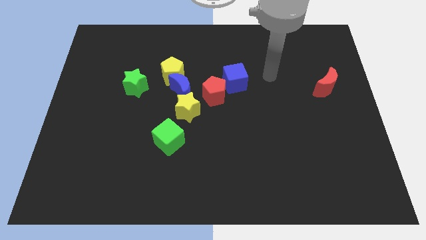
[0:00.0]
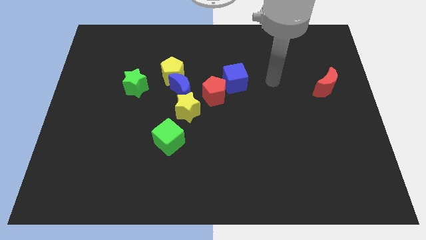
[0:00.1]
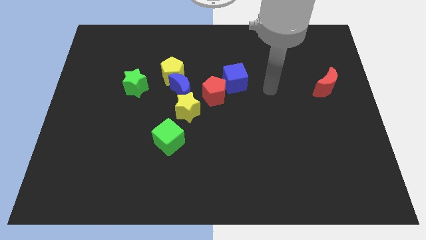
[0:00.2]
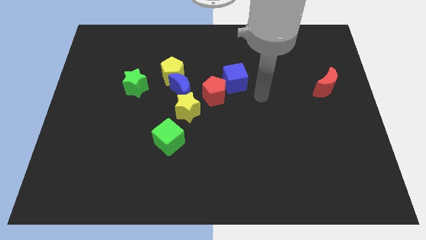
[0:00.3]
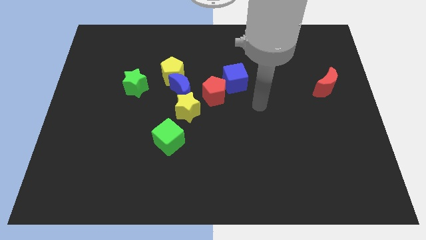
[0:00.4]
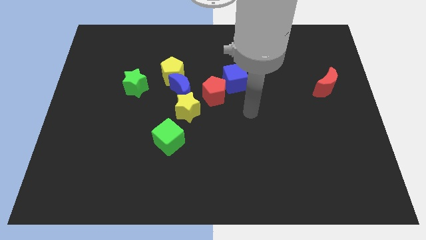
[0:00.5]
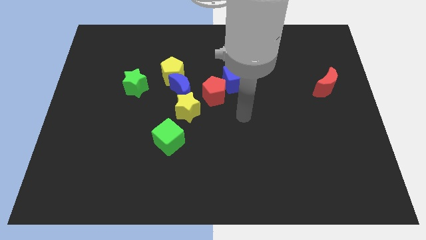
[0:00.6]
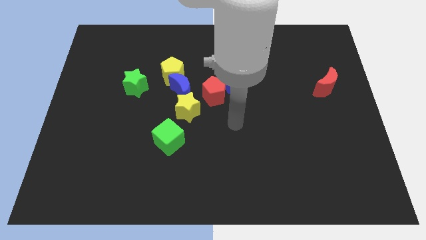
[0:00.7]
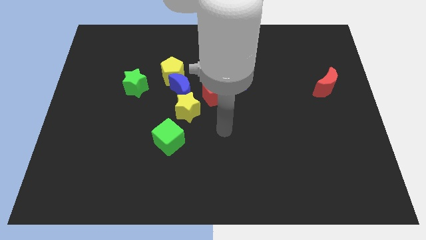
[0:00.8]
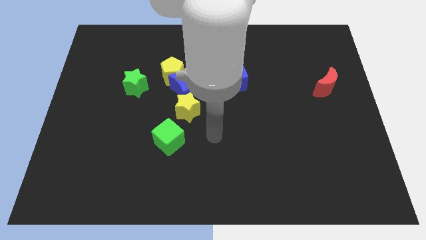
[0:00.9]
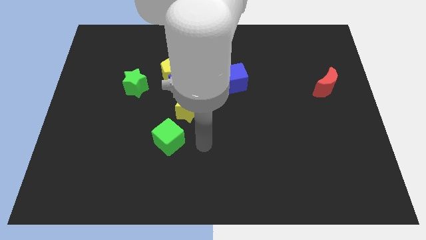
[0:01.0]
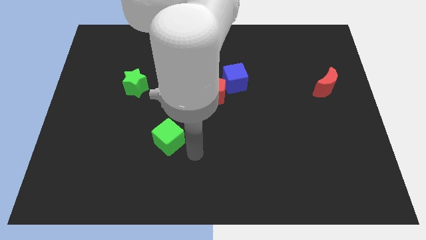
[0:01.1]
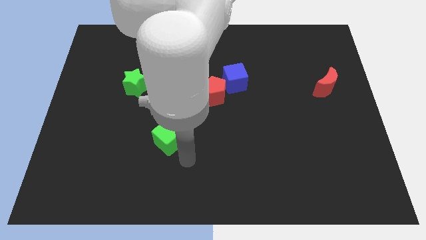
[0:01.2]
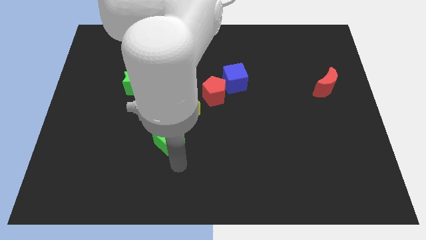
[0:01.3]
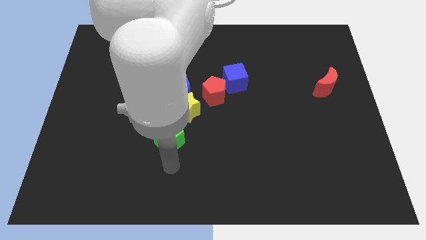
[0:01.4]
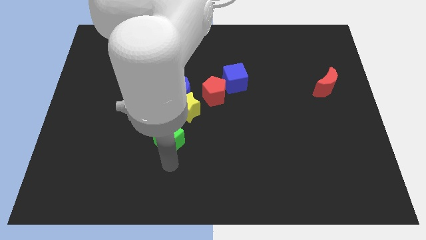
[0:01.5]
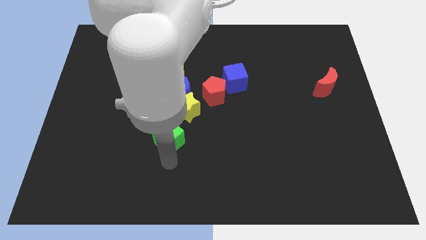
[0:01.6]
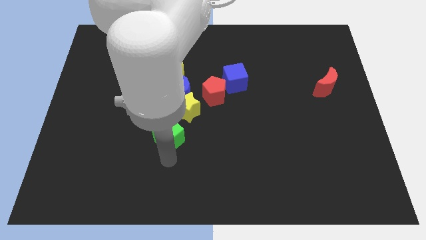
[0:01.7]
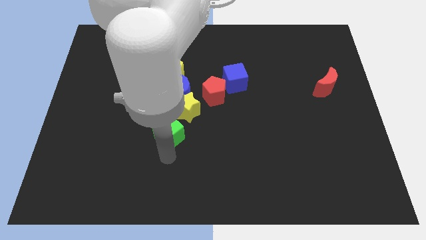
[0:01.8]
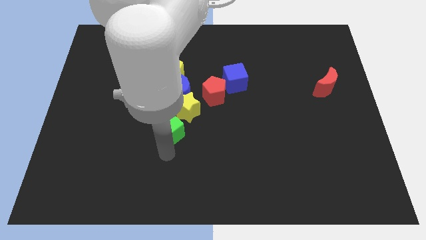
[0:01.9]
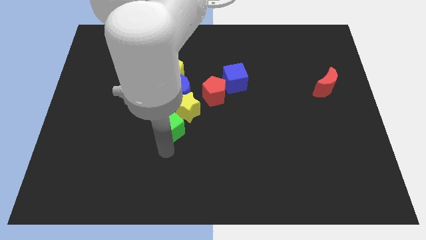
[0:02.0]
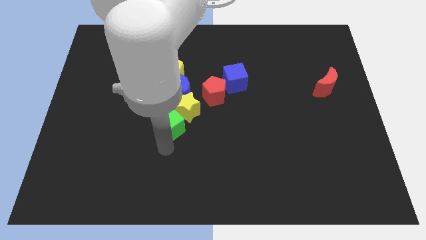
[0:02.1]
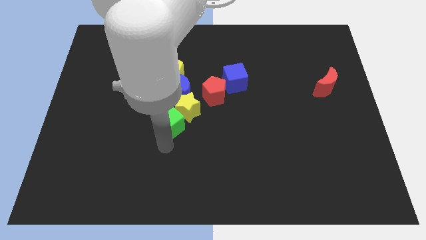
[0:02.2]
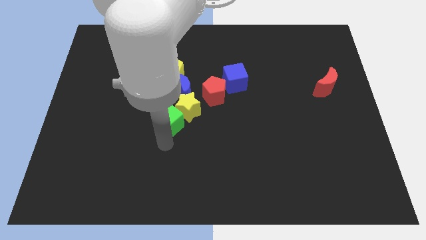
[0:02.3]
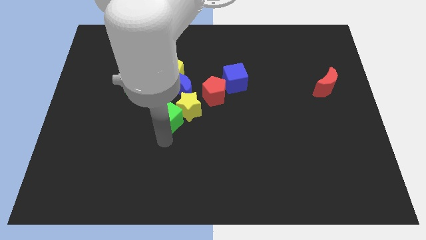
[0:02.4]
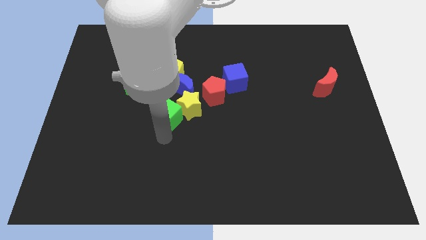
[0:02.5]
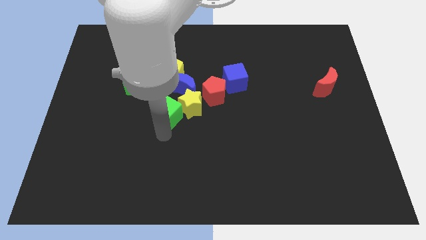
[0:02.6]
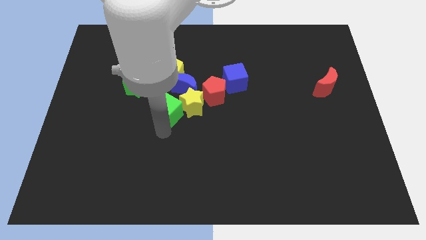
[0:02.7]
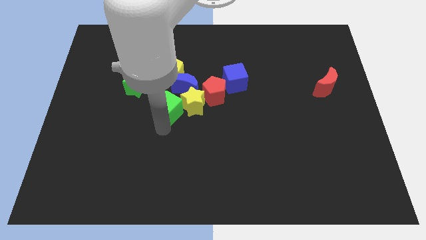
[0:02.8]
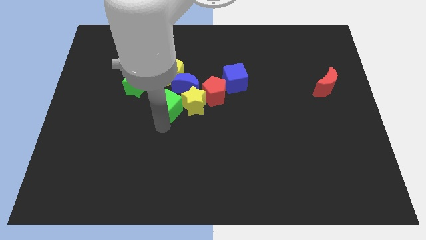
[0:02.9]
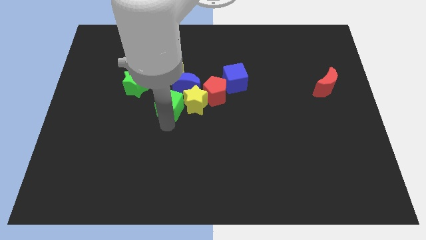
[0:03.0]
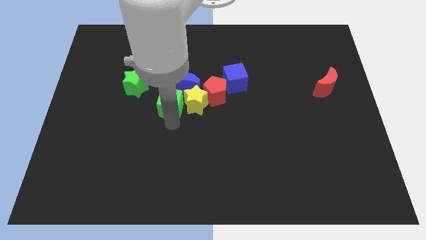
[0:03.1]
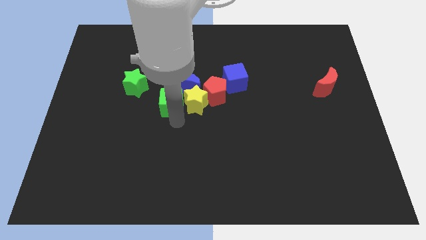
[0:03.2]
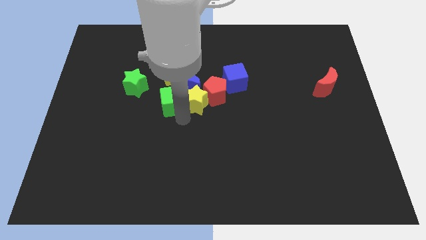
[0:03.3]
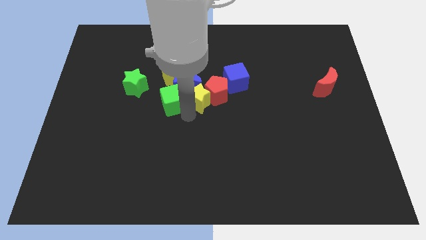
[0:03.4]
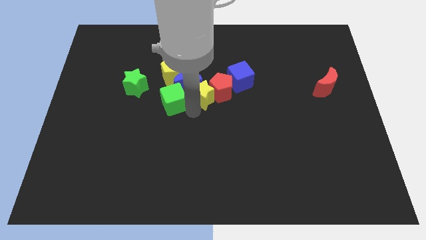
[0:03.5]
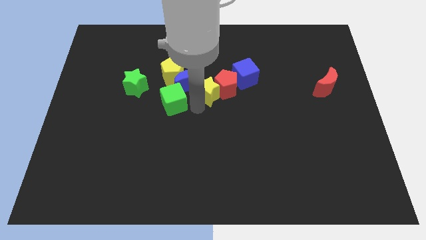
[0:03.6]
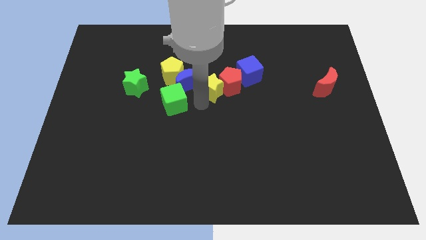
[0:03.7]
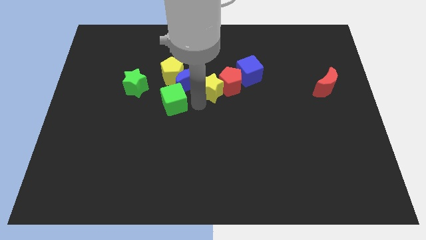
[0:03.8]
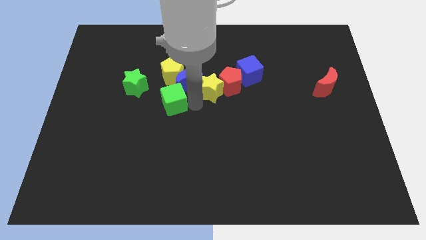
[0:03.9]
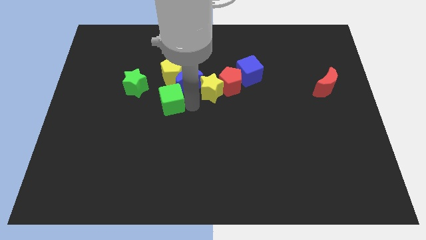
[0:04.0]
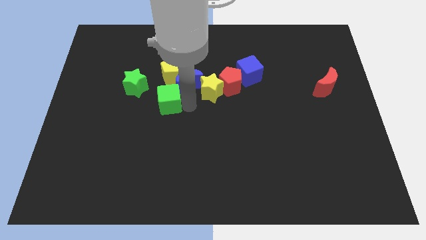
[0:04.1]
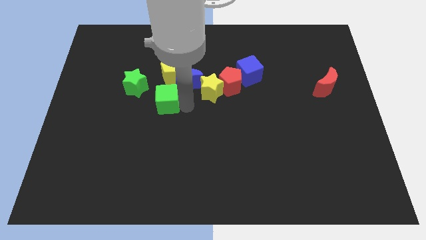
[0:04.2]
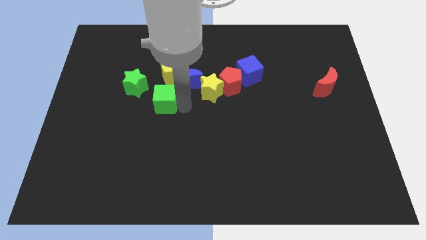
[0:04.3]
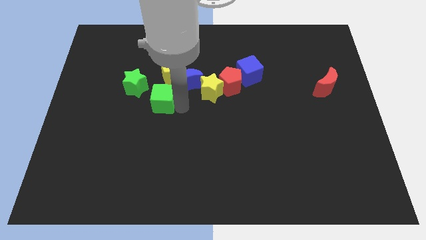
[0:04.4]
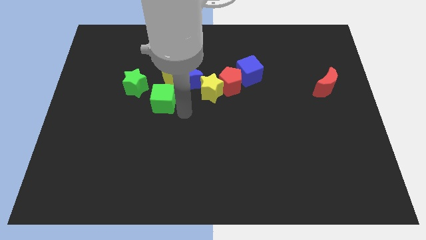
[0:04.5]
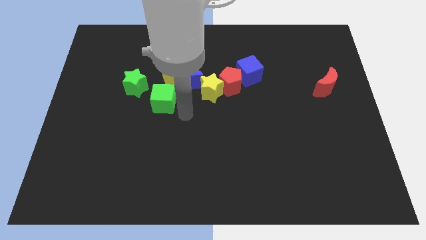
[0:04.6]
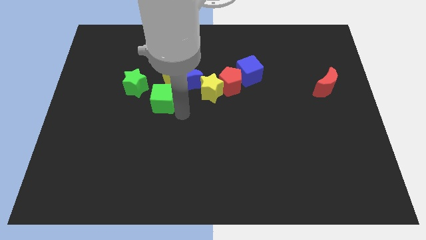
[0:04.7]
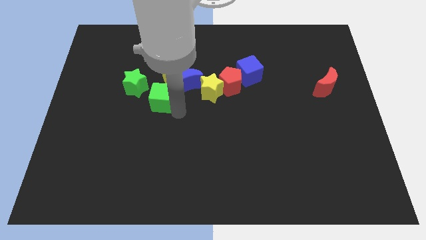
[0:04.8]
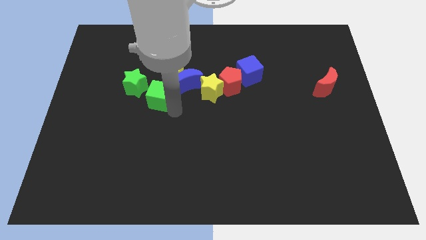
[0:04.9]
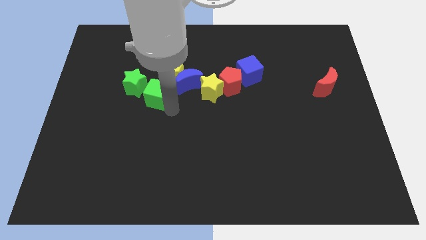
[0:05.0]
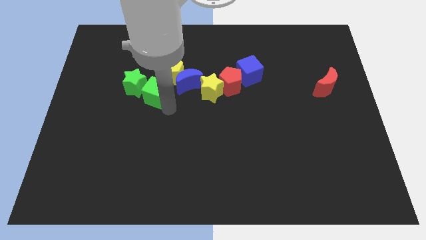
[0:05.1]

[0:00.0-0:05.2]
move the green cube to the green star

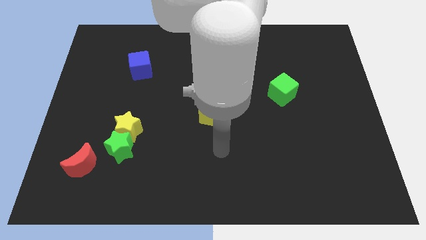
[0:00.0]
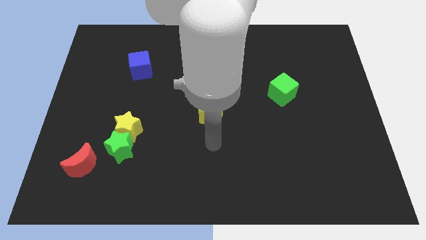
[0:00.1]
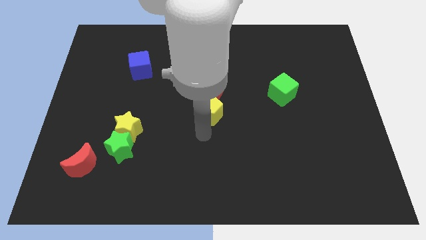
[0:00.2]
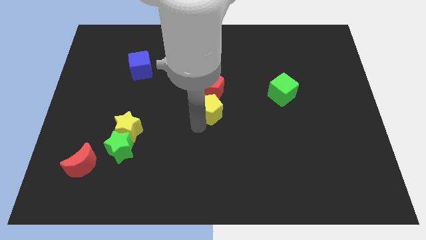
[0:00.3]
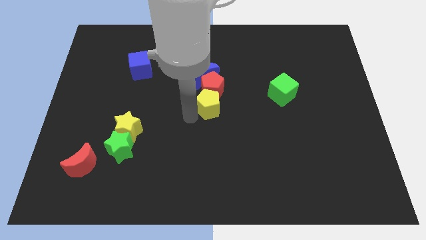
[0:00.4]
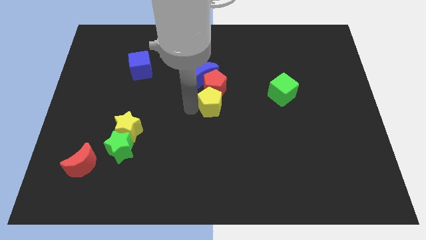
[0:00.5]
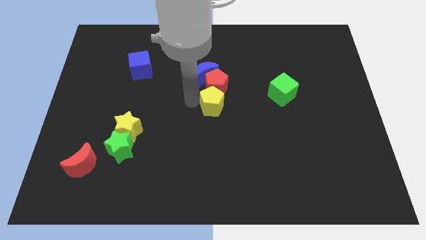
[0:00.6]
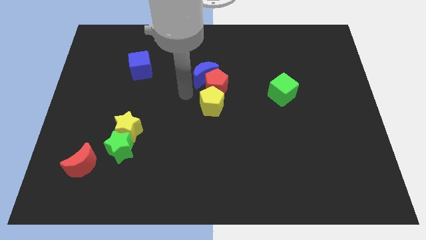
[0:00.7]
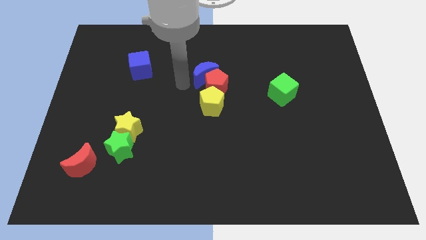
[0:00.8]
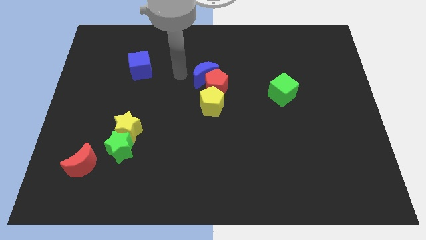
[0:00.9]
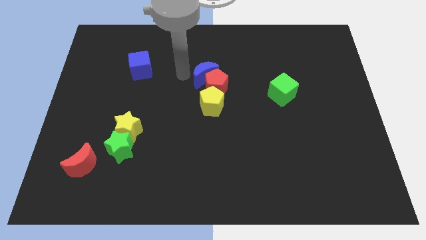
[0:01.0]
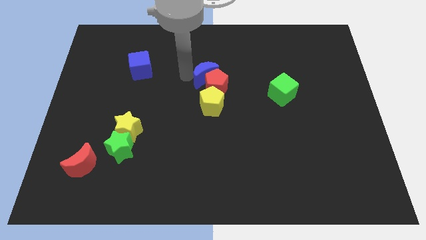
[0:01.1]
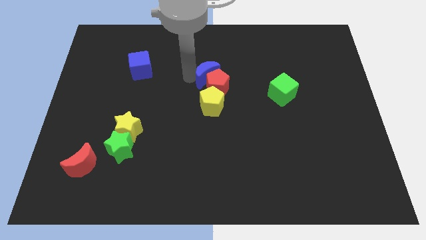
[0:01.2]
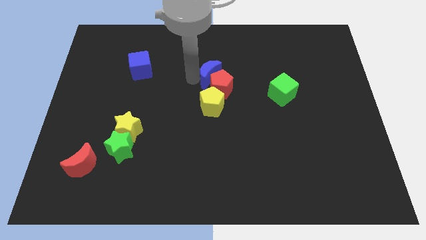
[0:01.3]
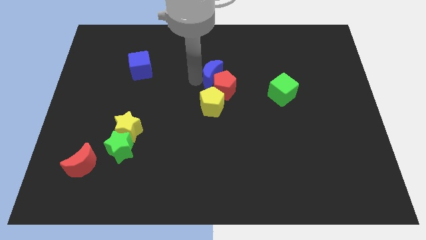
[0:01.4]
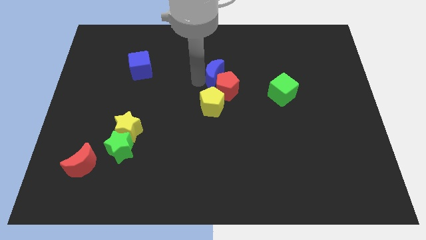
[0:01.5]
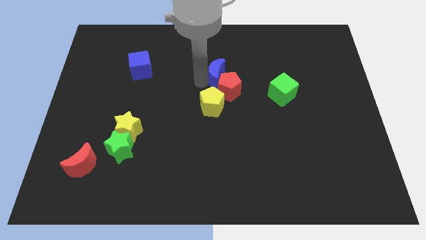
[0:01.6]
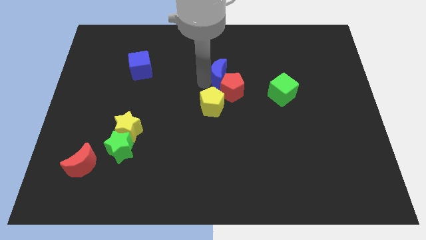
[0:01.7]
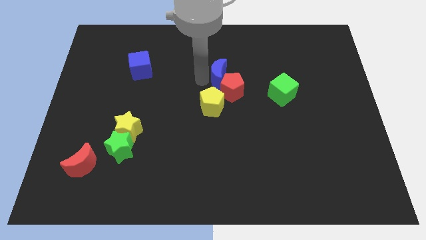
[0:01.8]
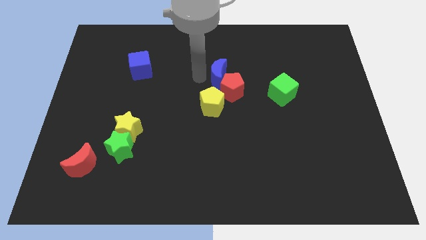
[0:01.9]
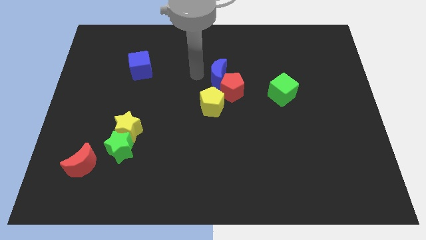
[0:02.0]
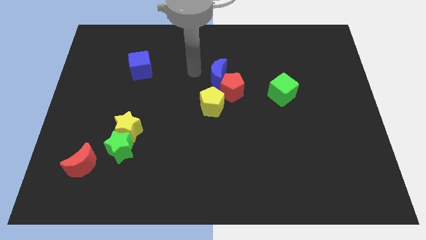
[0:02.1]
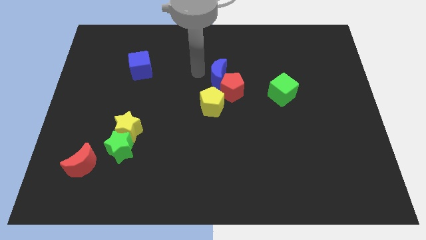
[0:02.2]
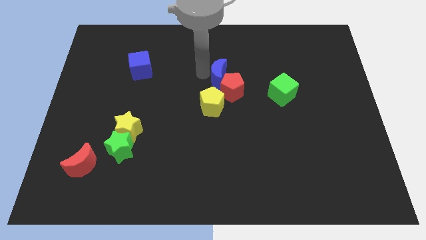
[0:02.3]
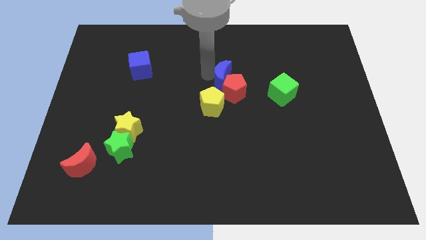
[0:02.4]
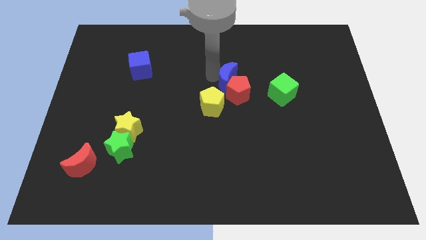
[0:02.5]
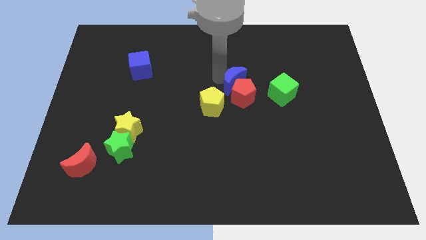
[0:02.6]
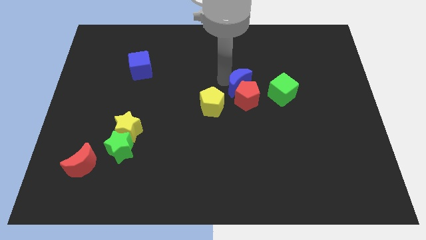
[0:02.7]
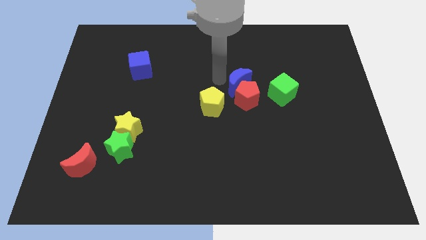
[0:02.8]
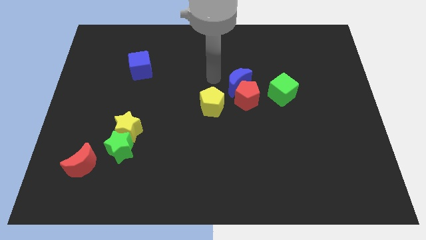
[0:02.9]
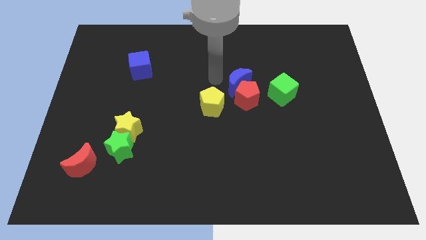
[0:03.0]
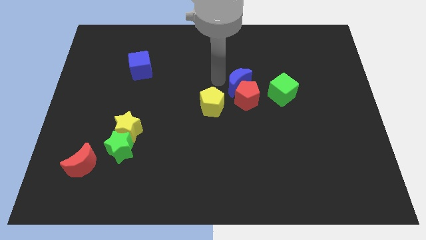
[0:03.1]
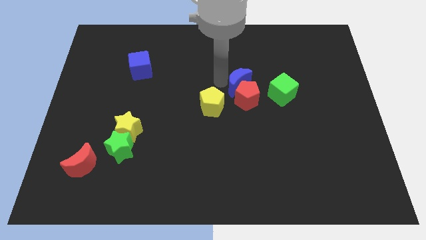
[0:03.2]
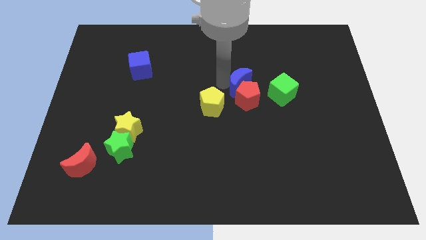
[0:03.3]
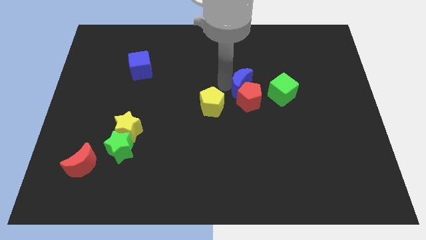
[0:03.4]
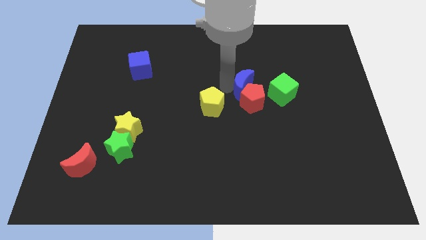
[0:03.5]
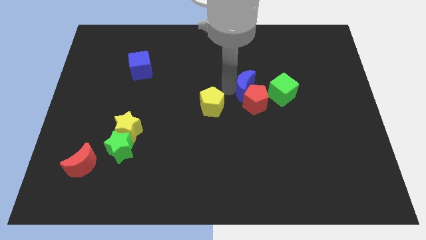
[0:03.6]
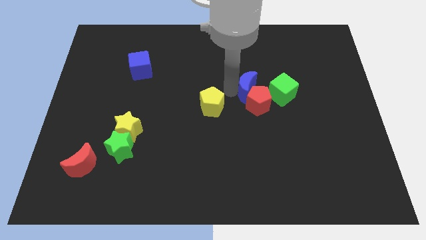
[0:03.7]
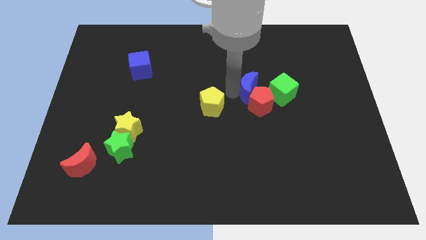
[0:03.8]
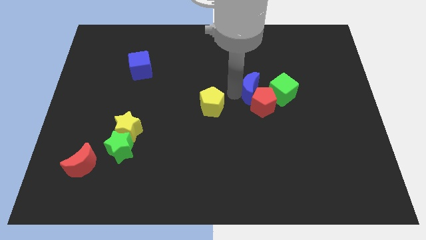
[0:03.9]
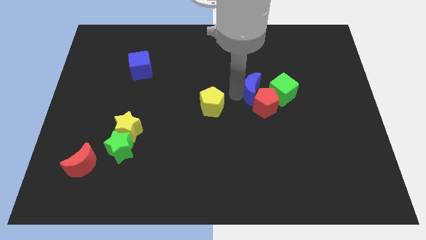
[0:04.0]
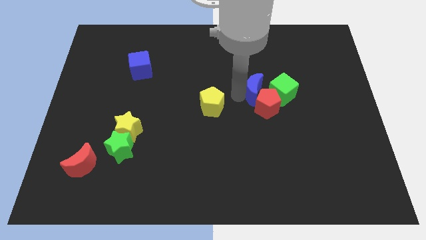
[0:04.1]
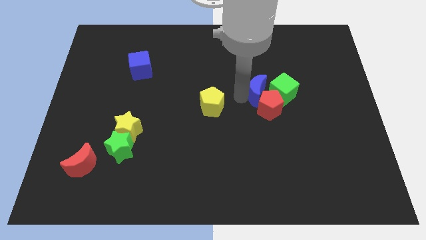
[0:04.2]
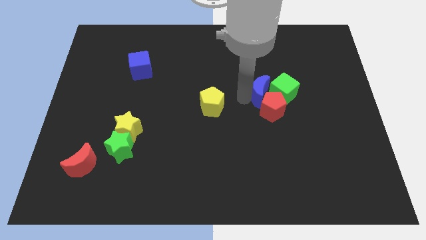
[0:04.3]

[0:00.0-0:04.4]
move the blue moon towards the green cube
